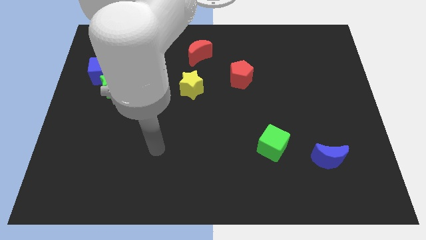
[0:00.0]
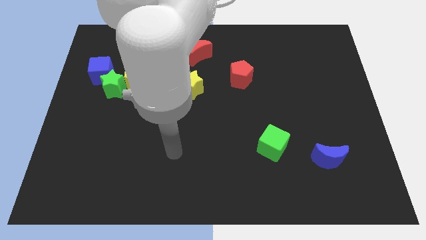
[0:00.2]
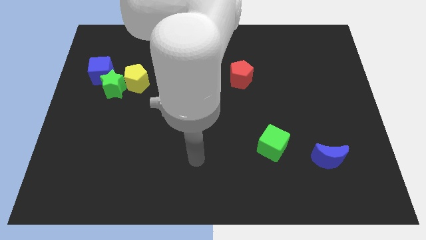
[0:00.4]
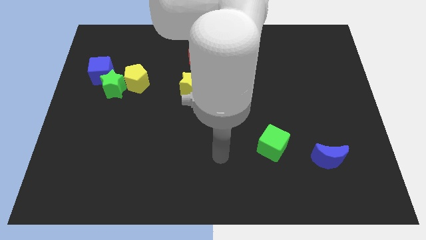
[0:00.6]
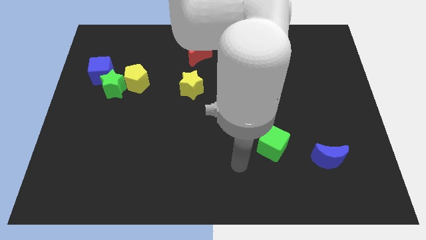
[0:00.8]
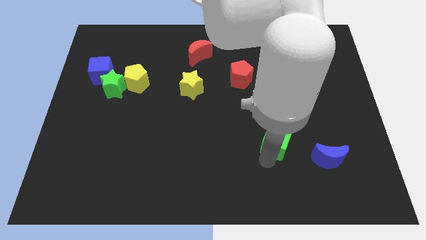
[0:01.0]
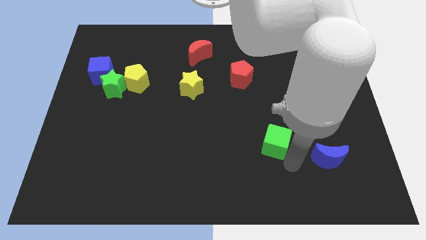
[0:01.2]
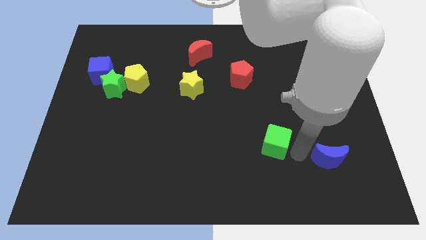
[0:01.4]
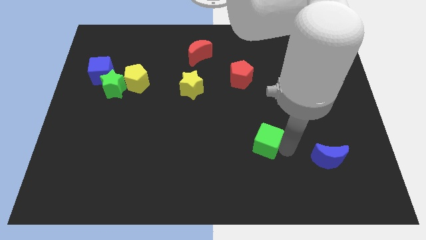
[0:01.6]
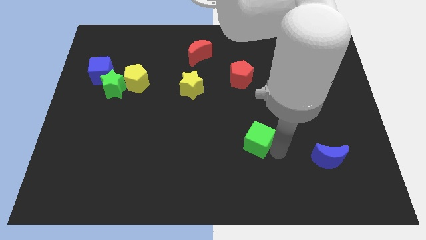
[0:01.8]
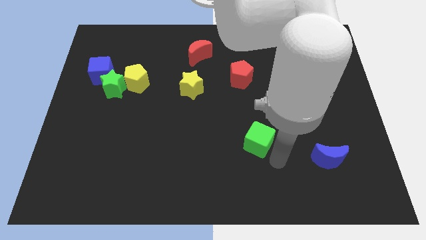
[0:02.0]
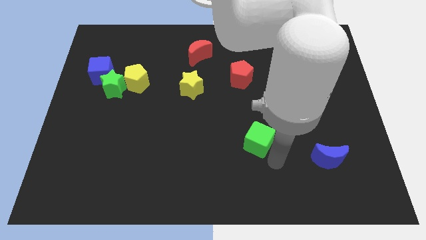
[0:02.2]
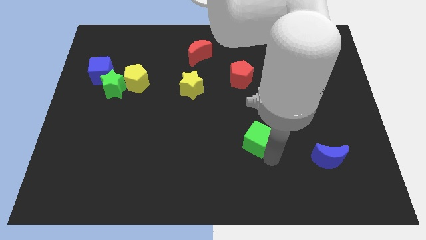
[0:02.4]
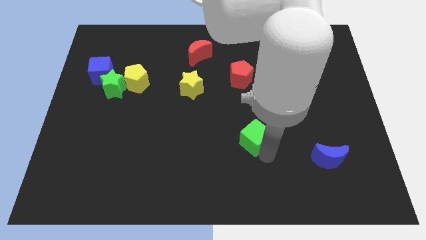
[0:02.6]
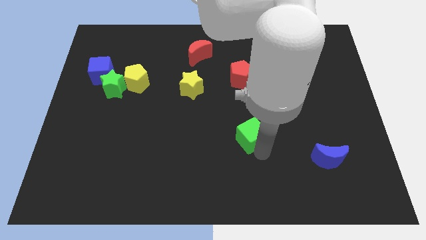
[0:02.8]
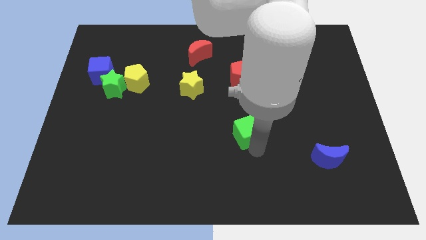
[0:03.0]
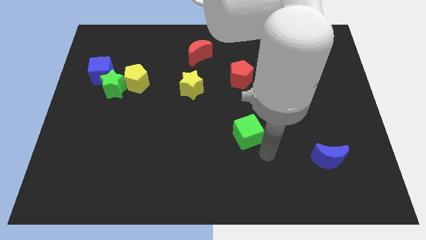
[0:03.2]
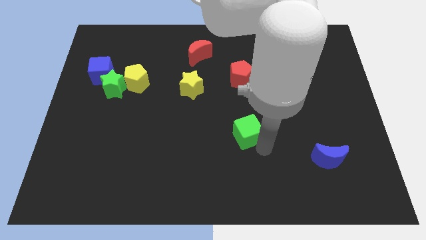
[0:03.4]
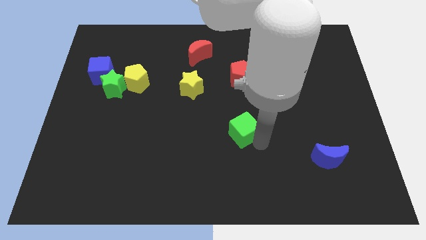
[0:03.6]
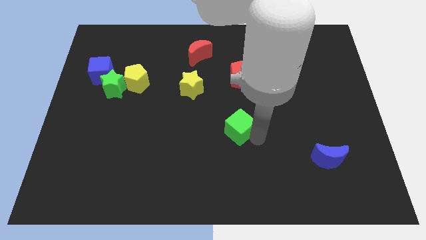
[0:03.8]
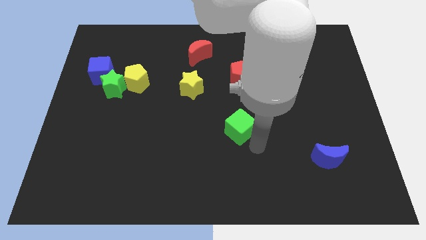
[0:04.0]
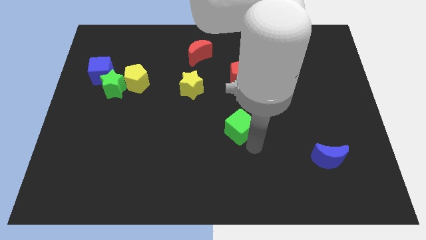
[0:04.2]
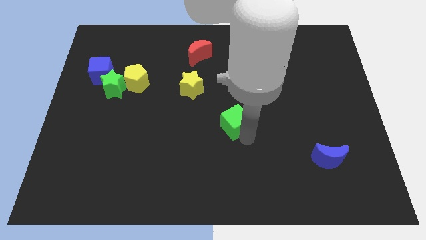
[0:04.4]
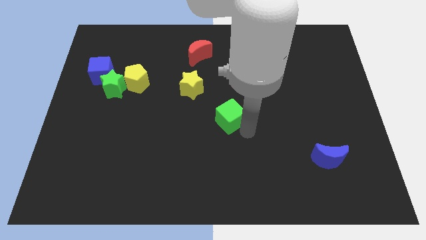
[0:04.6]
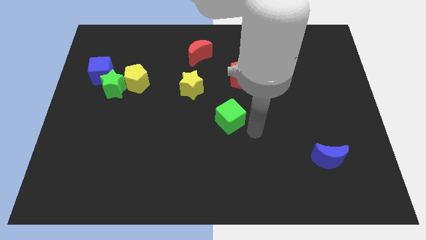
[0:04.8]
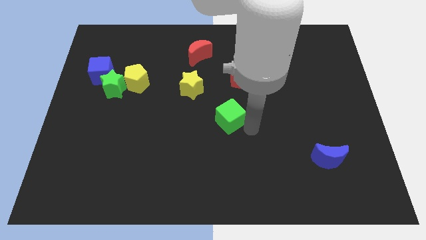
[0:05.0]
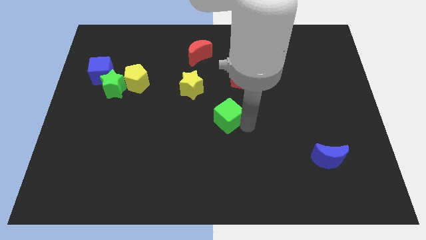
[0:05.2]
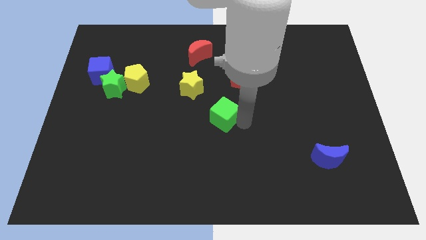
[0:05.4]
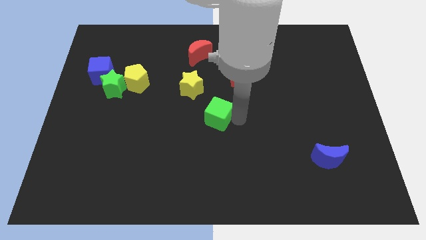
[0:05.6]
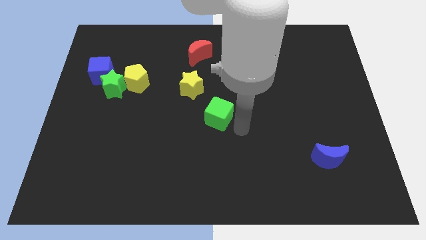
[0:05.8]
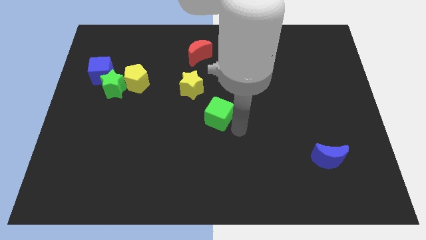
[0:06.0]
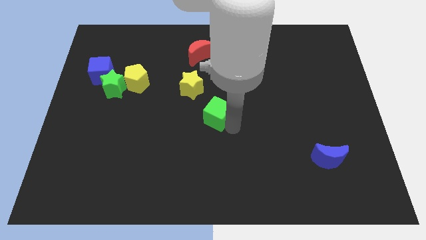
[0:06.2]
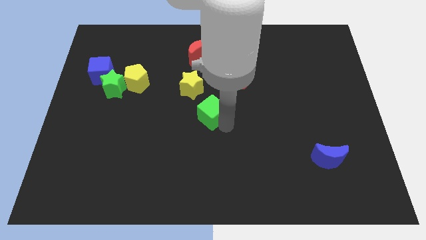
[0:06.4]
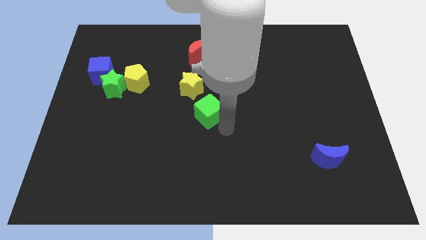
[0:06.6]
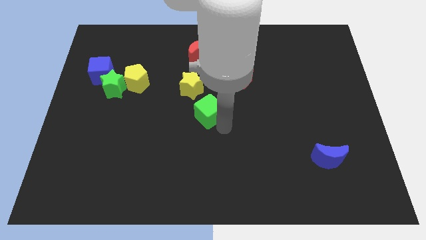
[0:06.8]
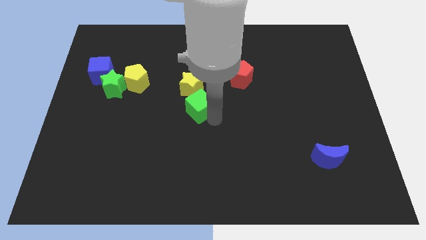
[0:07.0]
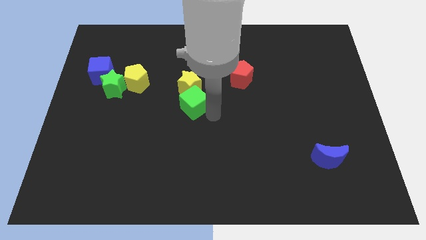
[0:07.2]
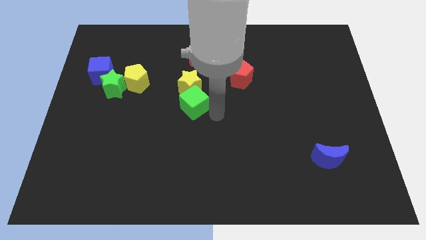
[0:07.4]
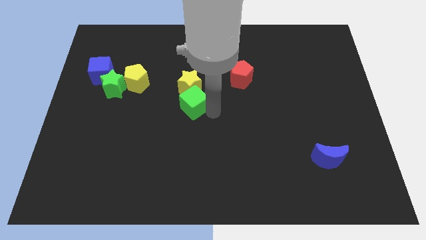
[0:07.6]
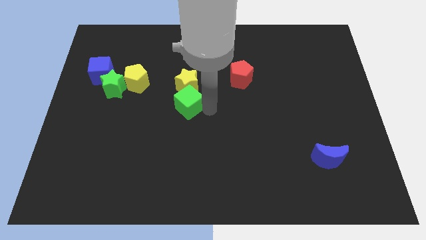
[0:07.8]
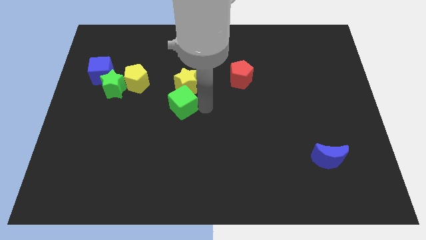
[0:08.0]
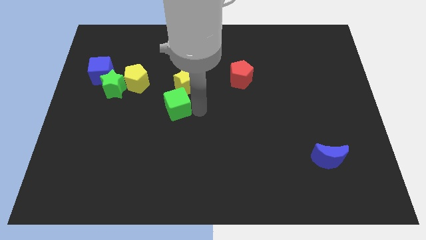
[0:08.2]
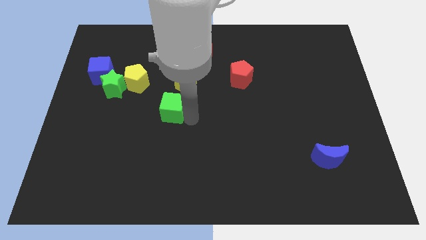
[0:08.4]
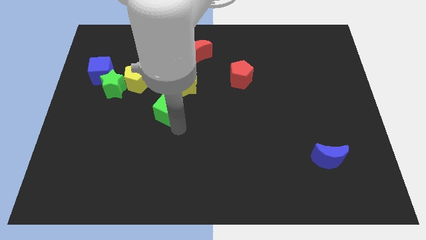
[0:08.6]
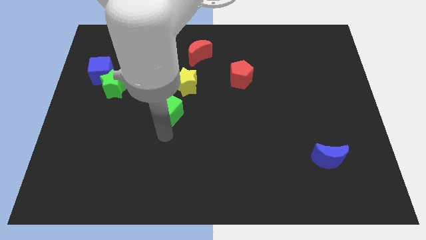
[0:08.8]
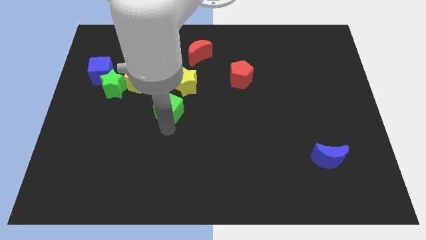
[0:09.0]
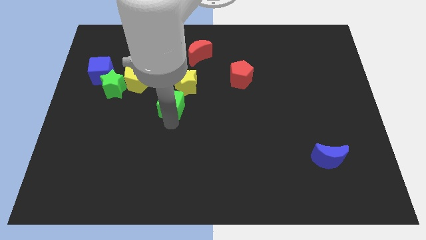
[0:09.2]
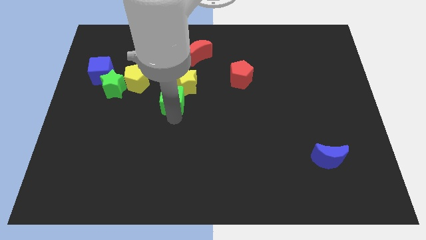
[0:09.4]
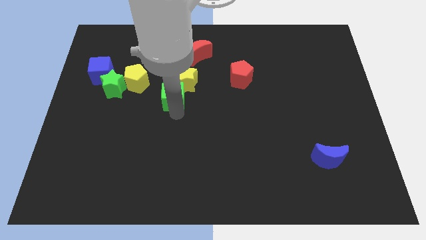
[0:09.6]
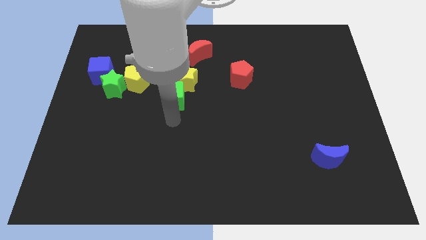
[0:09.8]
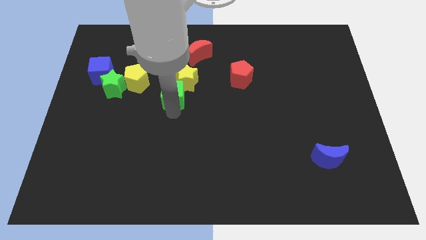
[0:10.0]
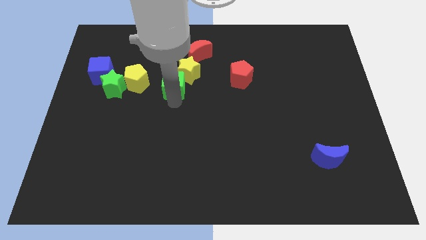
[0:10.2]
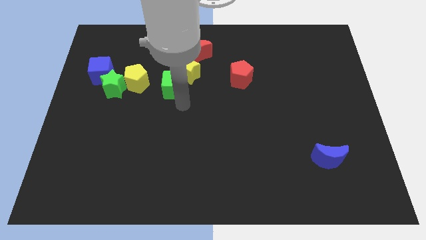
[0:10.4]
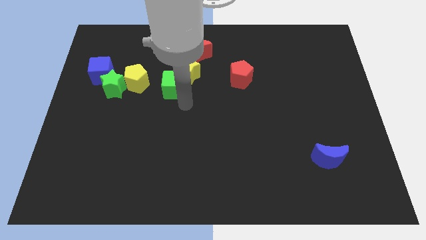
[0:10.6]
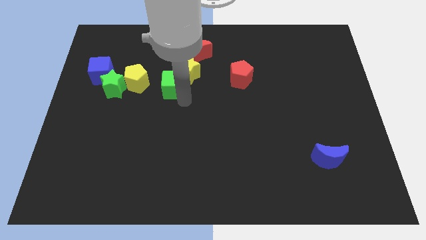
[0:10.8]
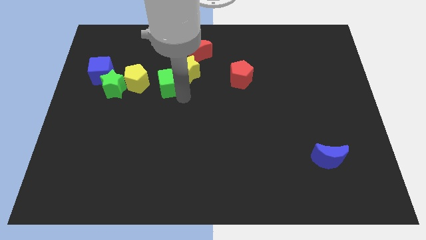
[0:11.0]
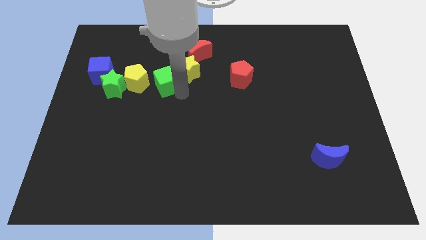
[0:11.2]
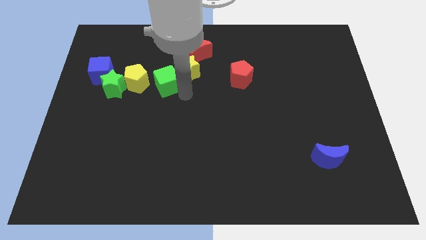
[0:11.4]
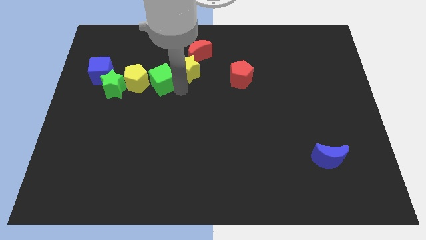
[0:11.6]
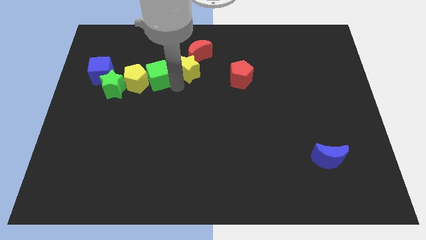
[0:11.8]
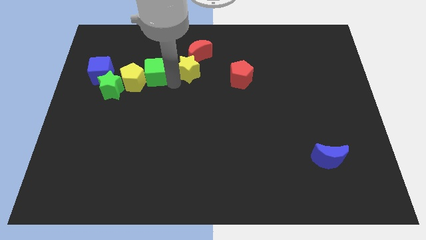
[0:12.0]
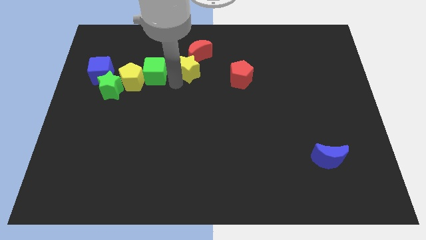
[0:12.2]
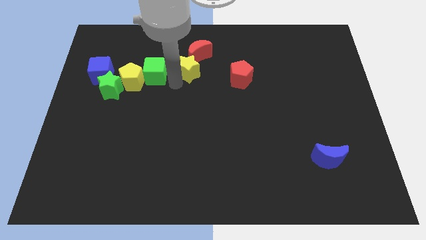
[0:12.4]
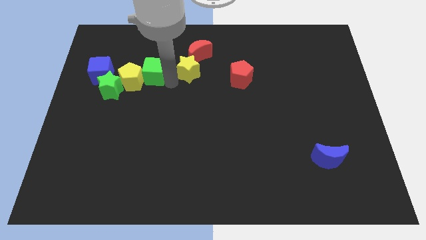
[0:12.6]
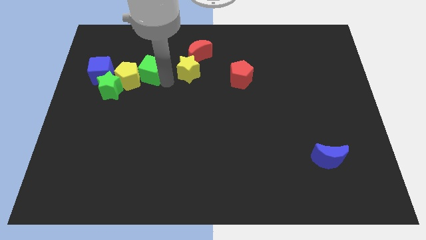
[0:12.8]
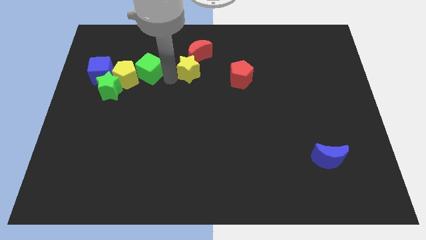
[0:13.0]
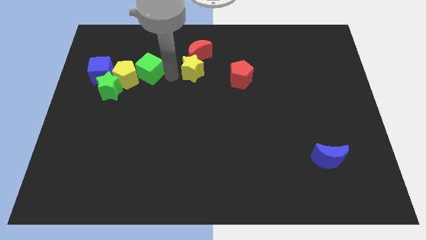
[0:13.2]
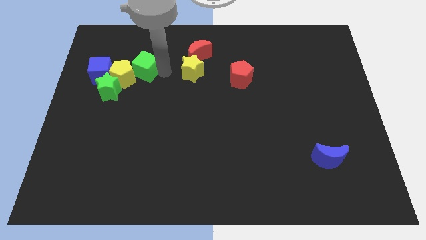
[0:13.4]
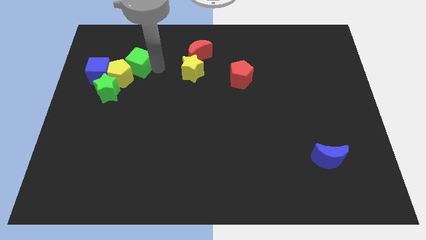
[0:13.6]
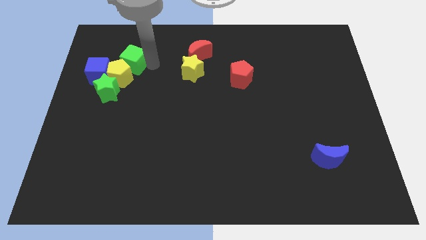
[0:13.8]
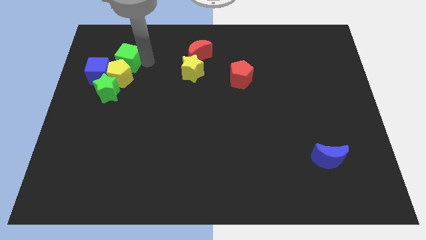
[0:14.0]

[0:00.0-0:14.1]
slide the green cube to the top left side of the yellow pentagon

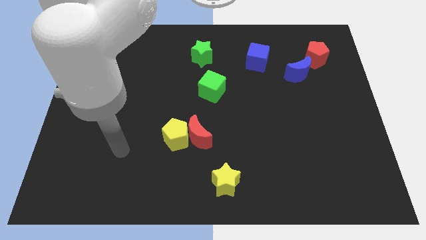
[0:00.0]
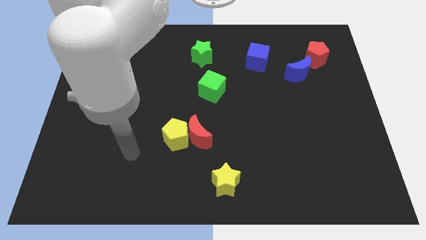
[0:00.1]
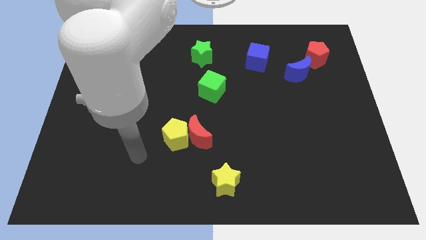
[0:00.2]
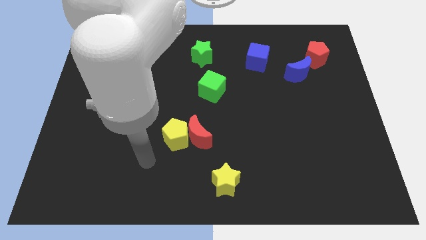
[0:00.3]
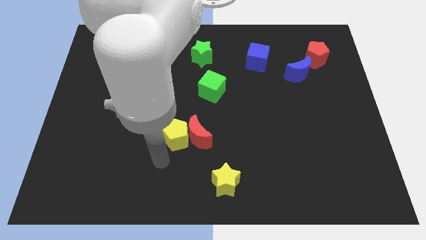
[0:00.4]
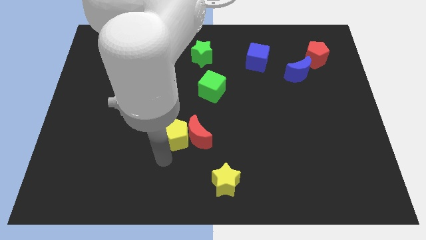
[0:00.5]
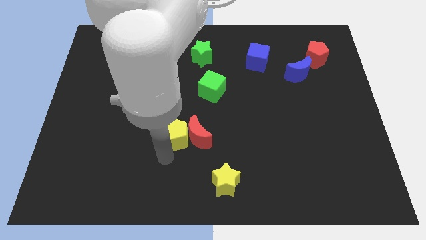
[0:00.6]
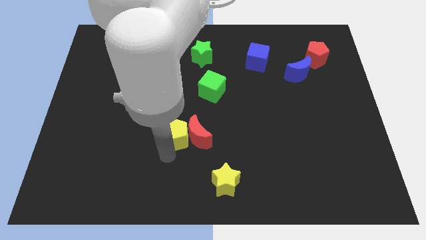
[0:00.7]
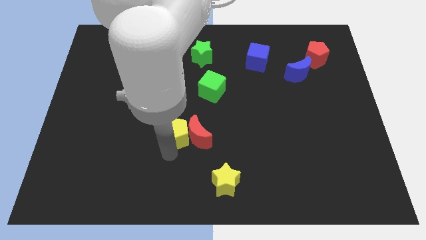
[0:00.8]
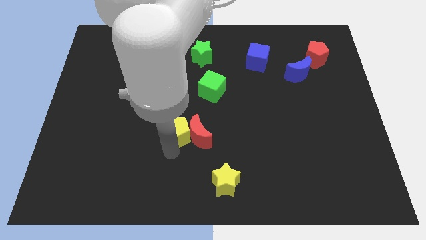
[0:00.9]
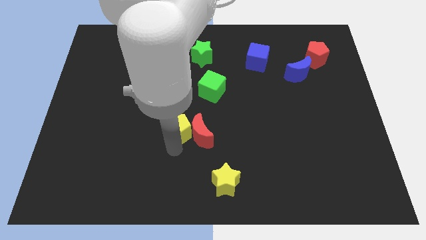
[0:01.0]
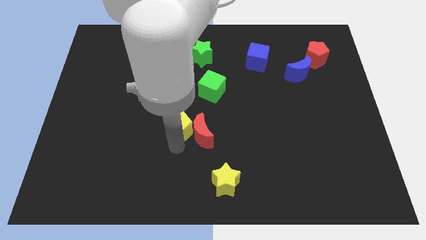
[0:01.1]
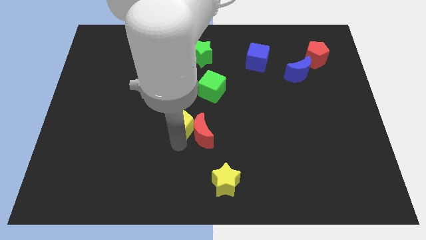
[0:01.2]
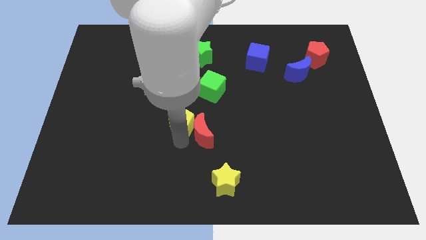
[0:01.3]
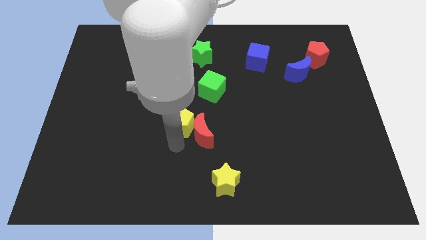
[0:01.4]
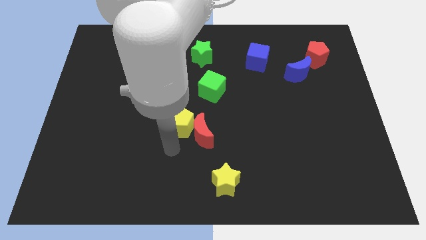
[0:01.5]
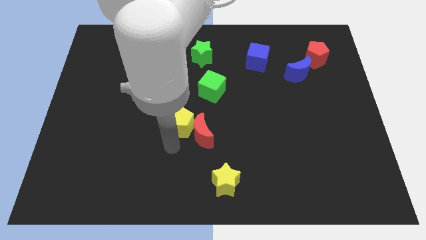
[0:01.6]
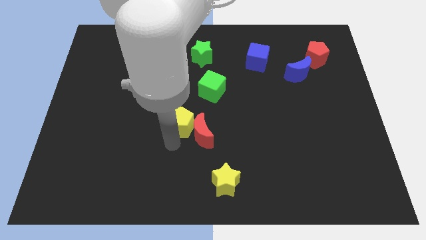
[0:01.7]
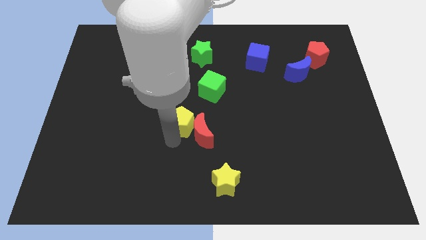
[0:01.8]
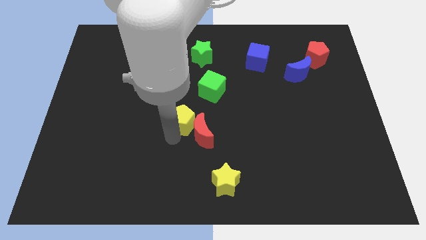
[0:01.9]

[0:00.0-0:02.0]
slide the yellow pentagon diagonally down and to the left of the green cube
